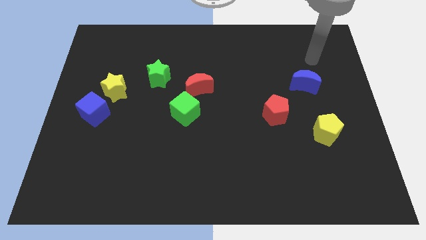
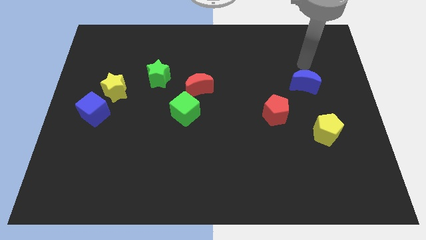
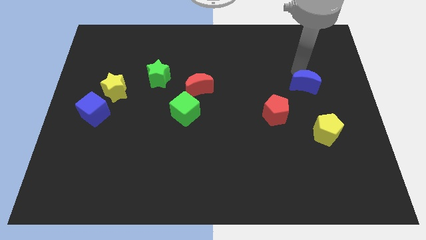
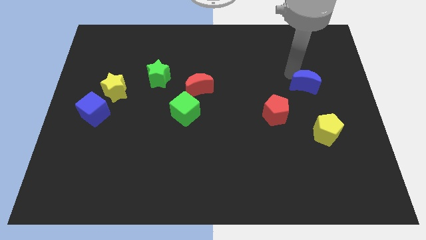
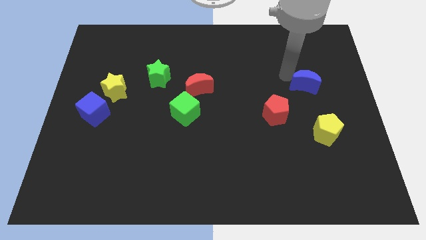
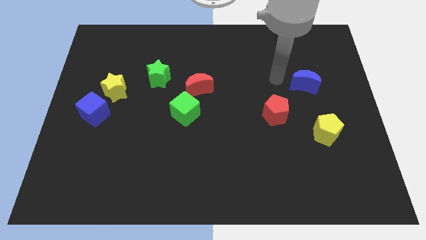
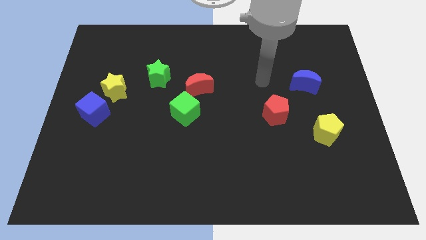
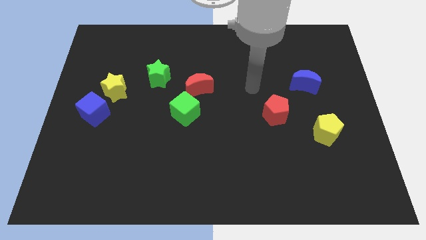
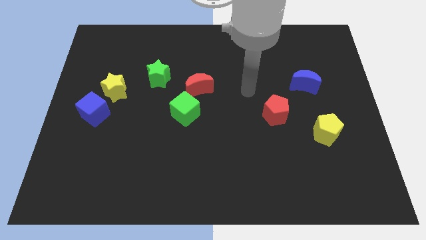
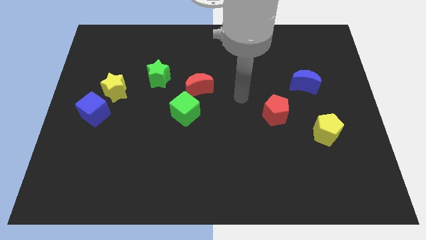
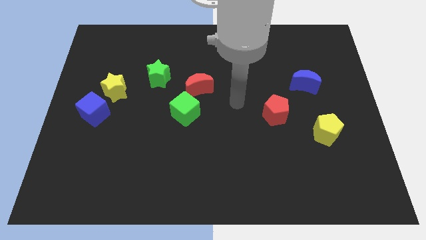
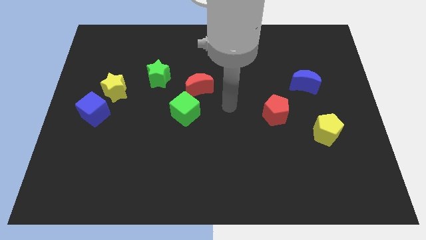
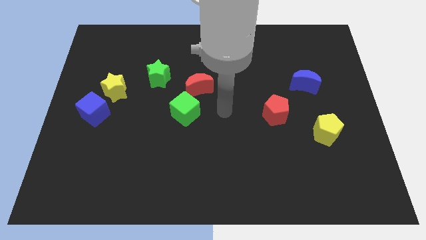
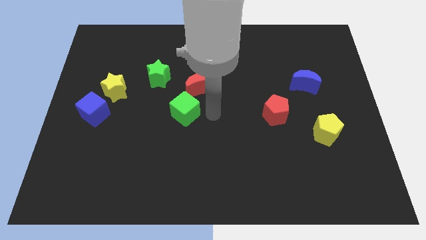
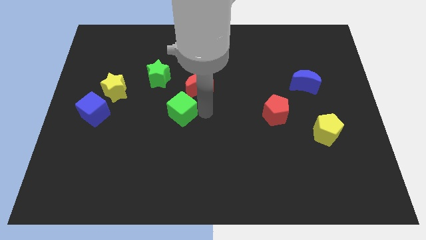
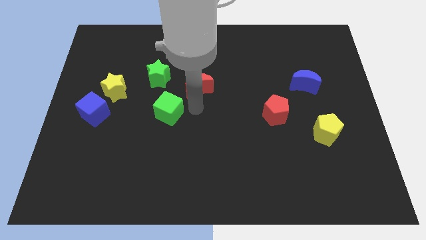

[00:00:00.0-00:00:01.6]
separate the red moon from the green cube

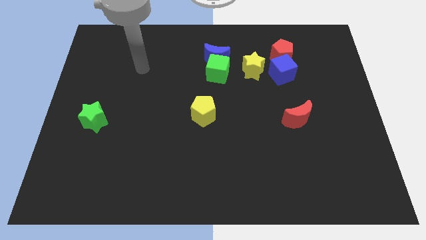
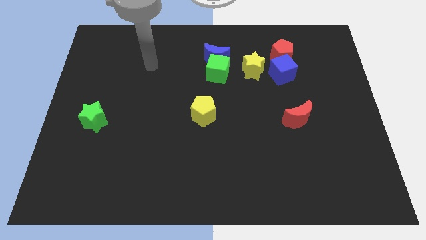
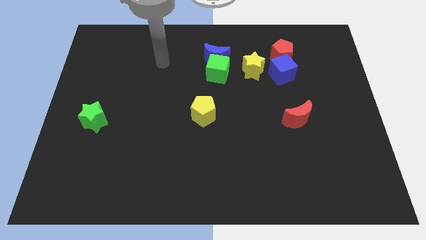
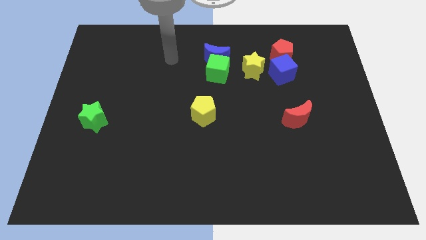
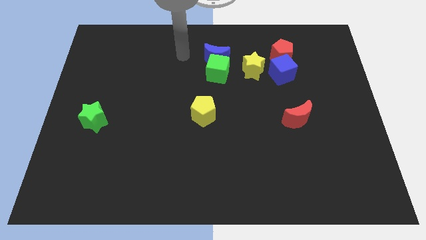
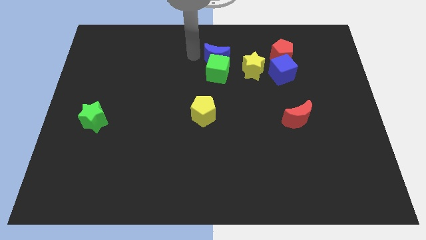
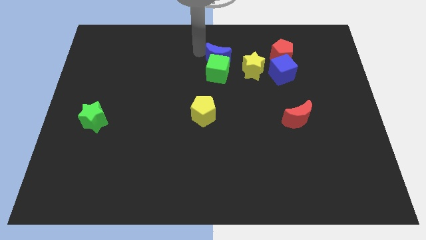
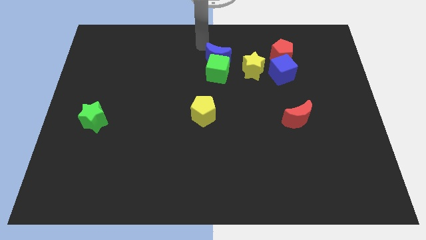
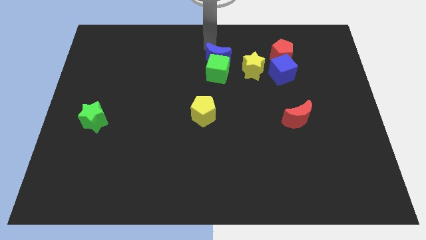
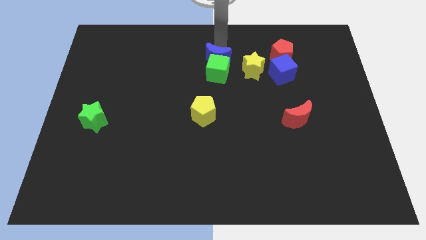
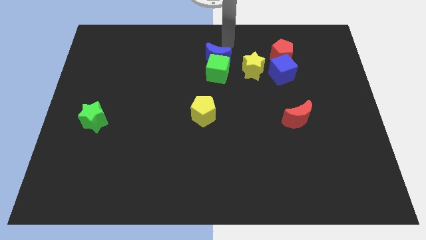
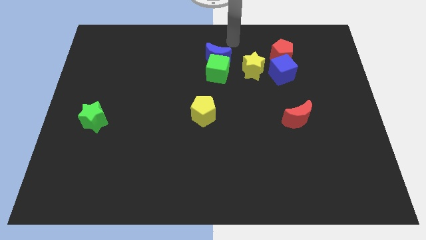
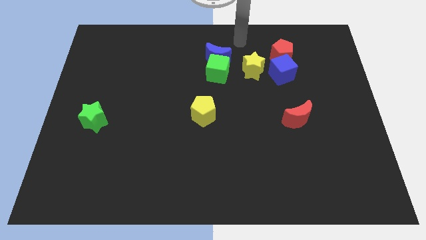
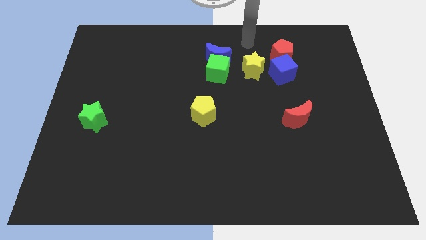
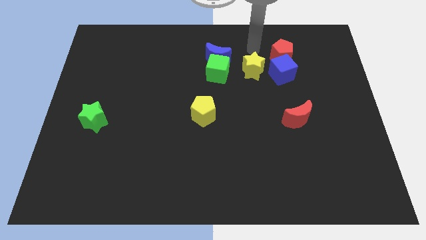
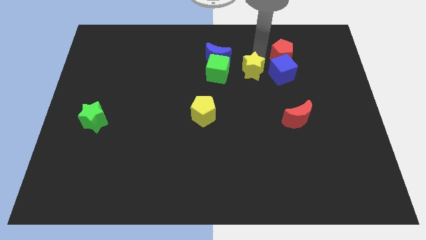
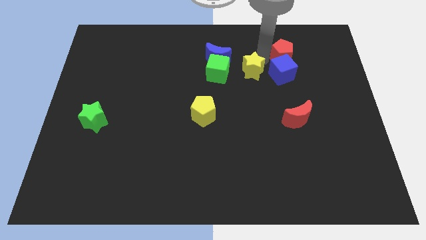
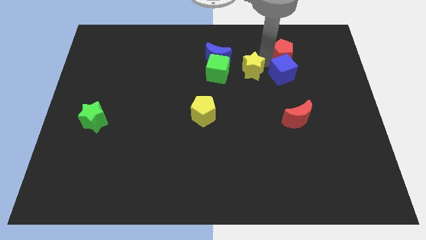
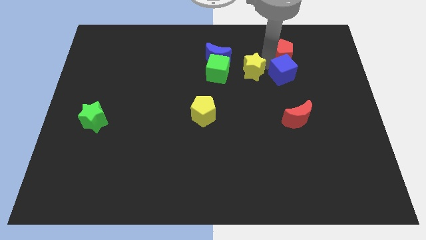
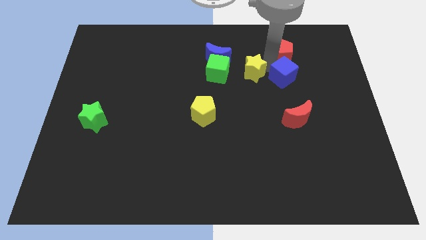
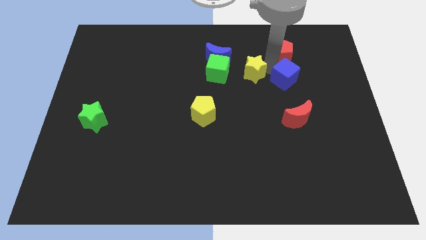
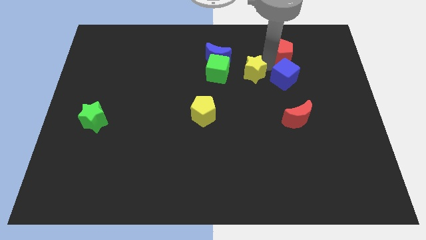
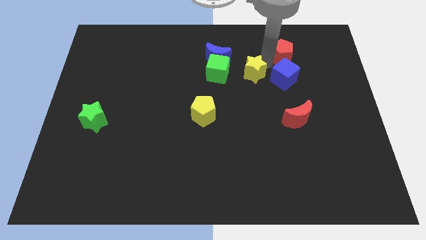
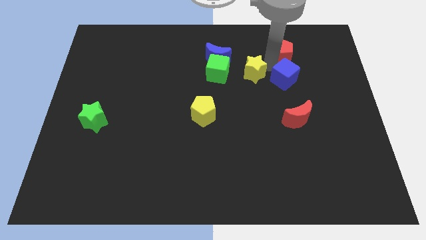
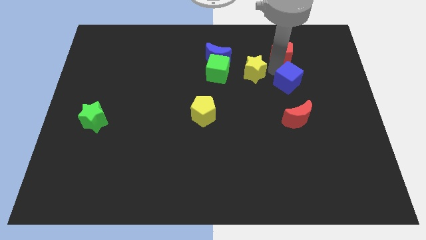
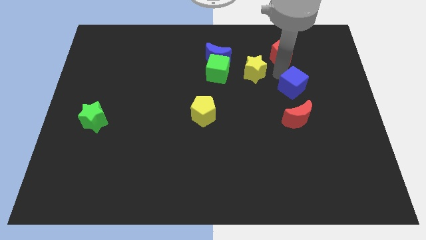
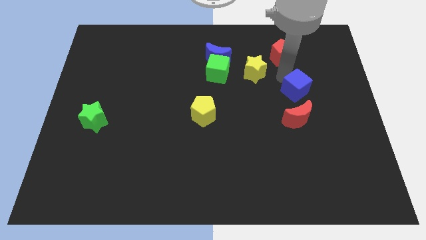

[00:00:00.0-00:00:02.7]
pull the blue cube apart from the red pentagon and yellow star

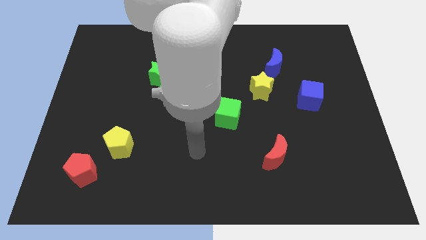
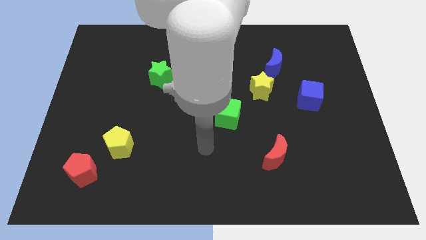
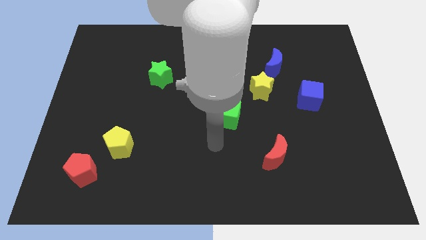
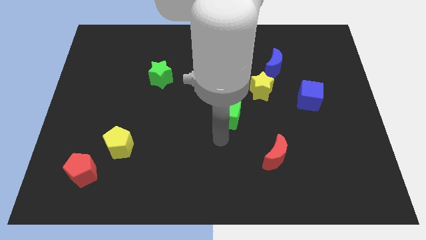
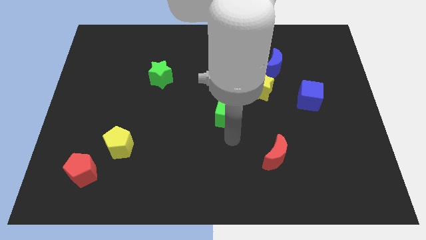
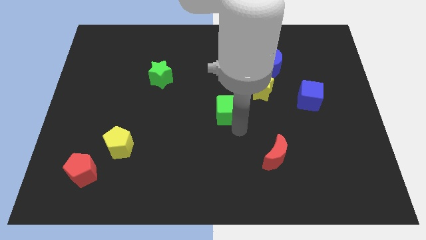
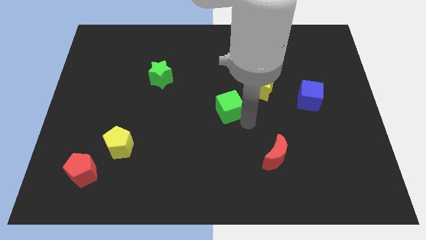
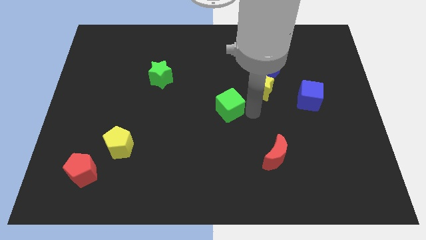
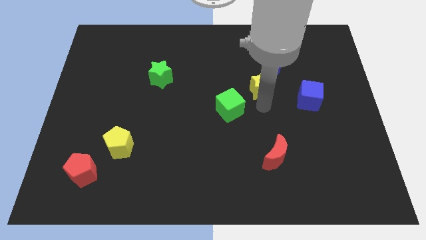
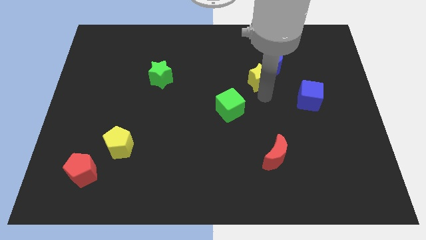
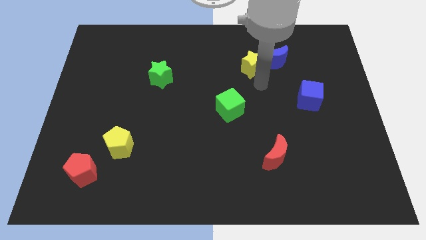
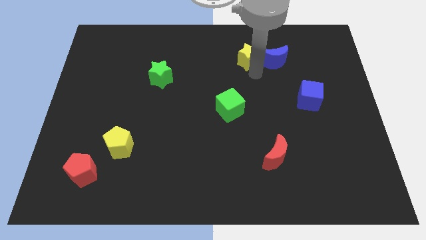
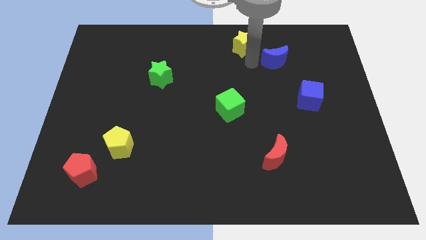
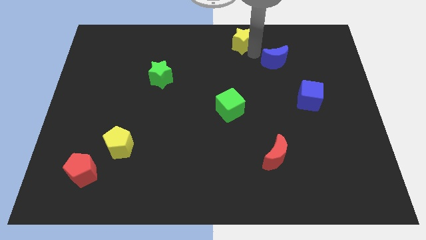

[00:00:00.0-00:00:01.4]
move the blue moon away from the yellow star

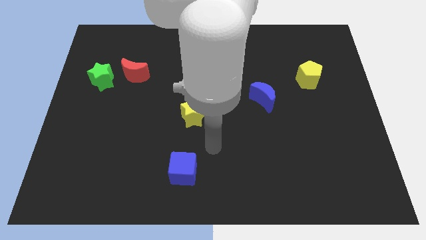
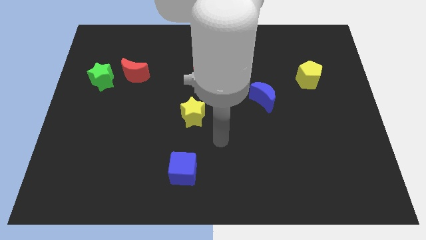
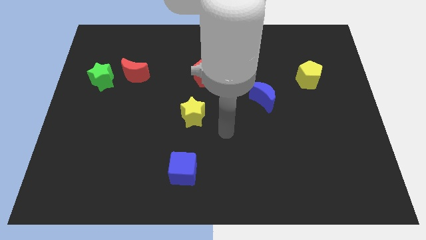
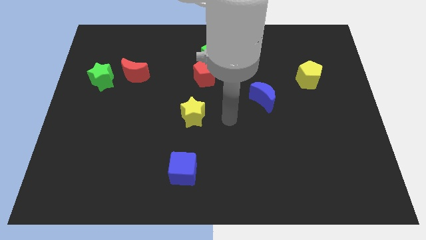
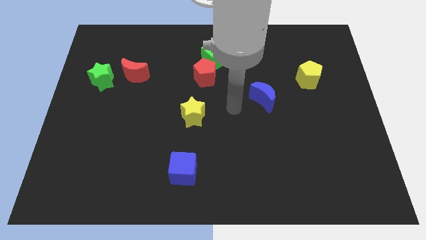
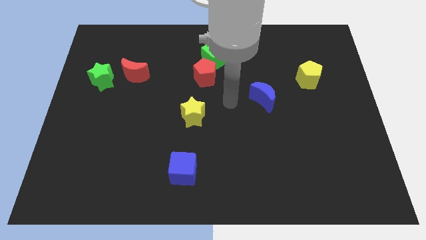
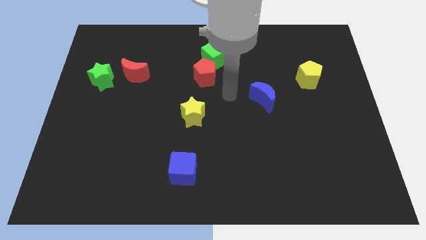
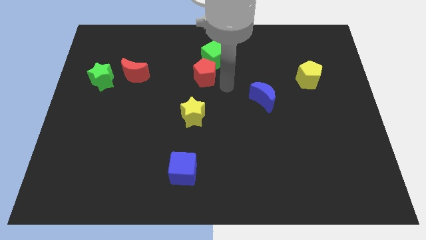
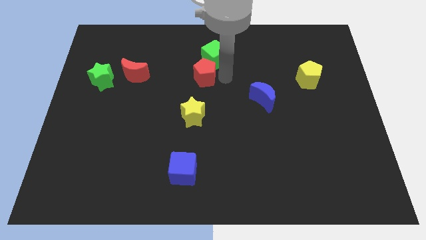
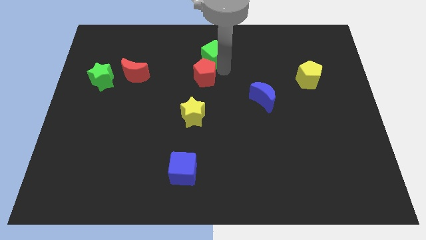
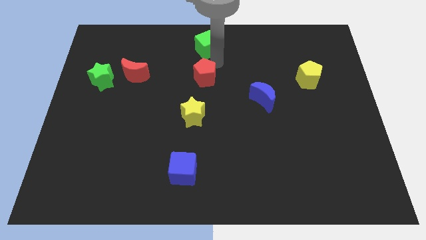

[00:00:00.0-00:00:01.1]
pull the red pentagon apart from the green cube

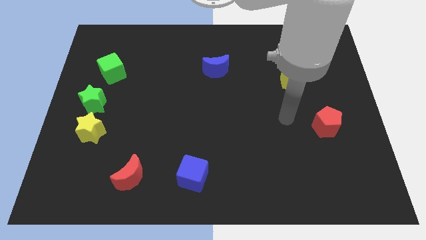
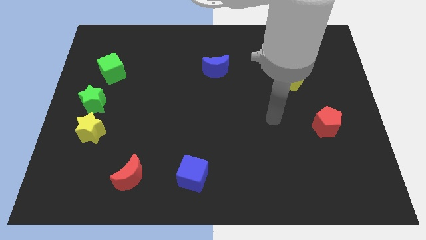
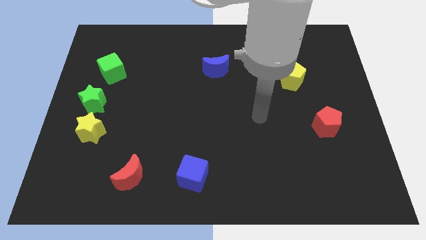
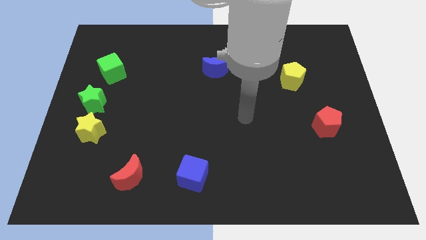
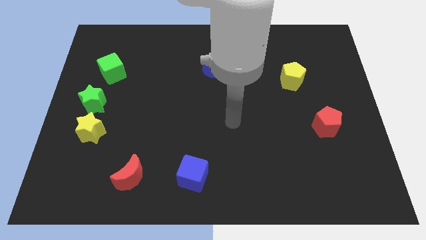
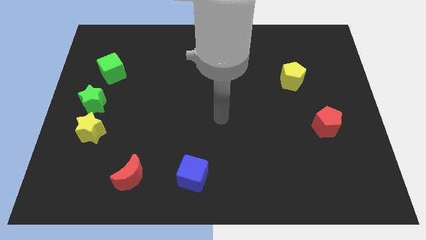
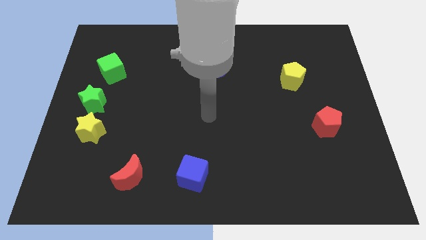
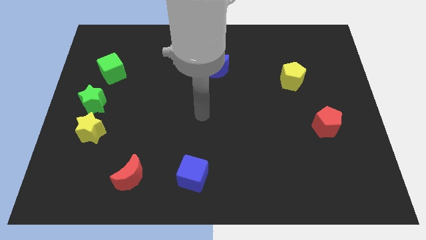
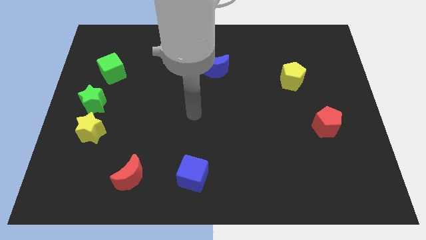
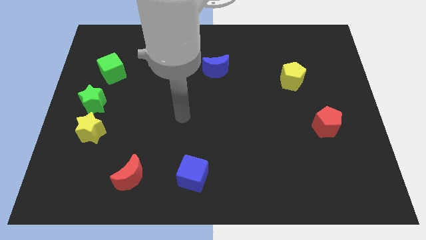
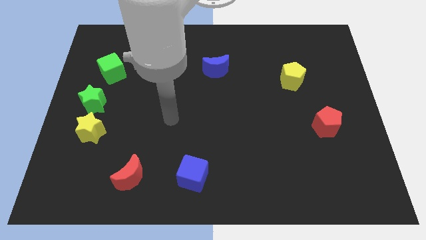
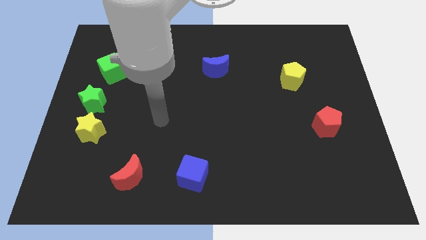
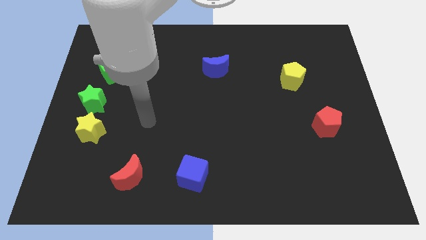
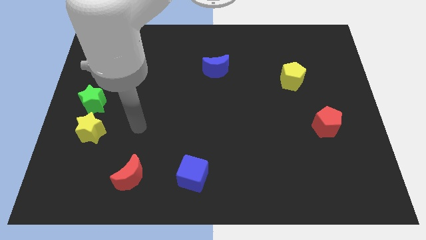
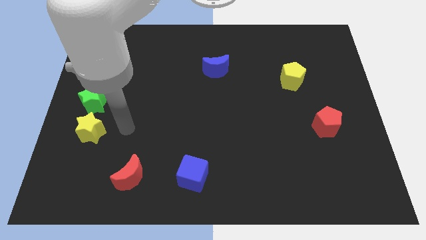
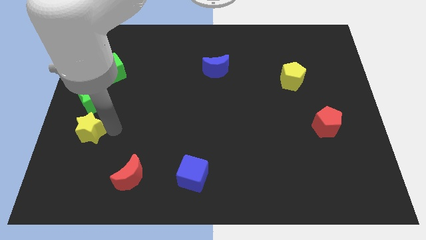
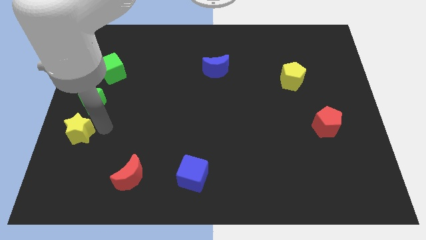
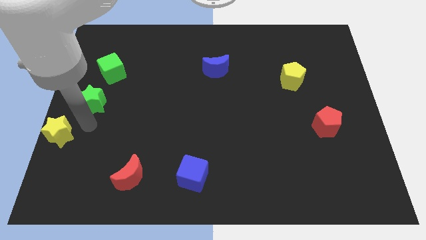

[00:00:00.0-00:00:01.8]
pull the green star apart from the yellow star

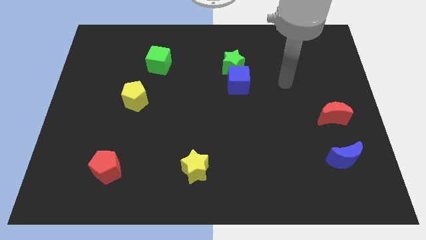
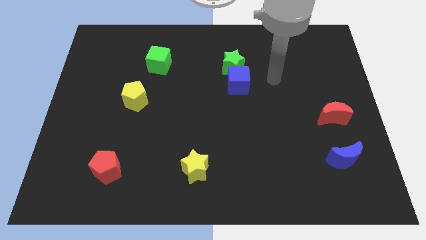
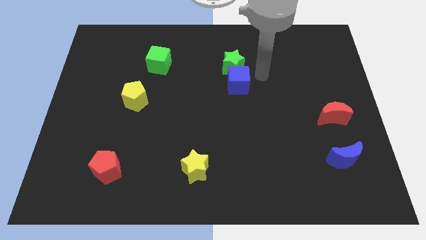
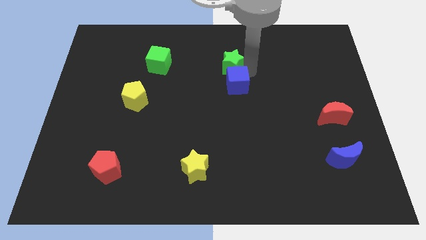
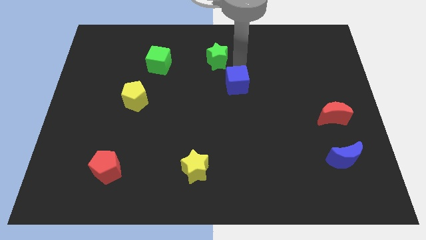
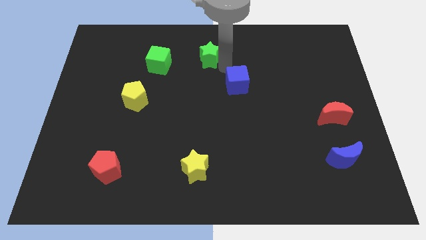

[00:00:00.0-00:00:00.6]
move the blue cube away from the green star

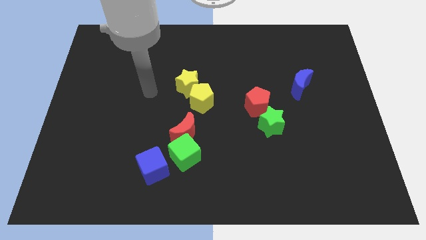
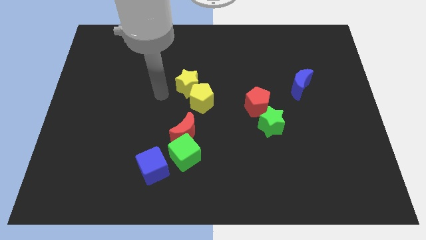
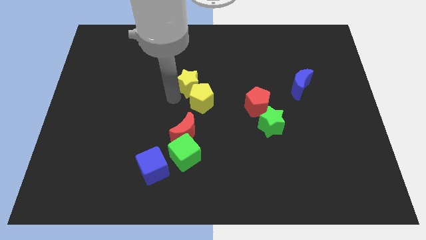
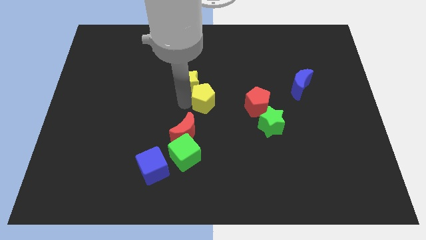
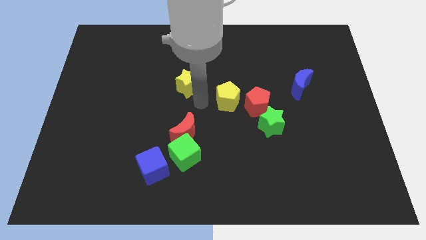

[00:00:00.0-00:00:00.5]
pull the yellow star apart from the yellow pentagon
